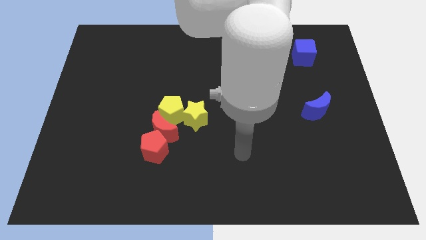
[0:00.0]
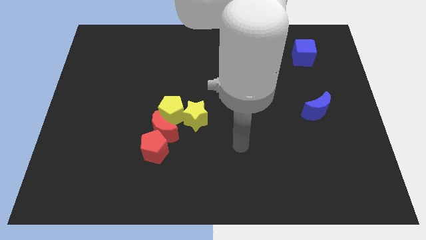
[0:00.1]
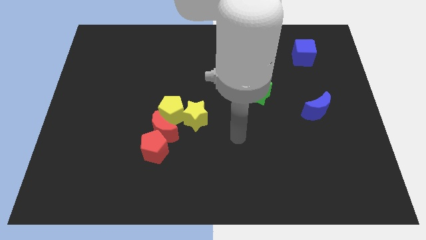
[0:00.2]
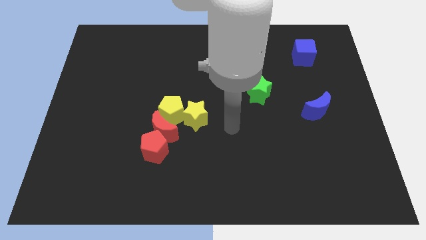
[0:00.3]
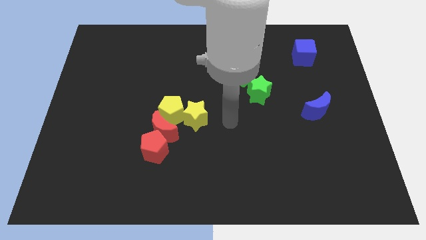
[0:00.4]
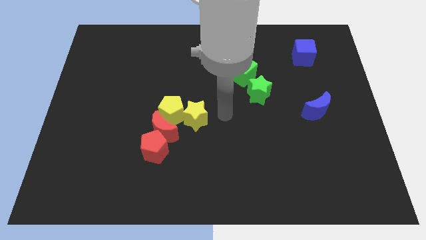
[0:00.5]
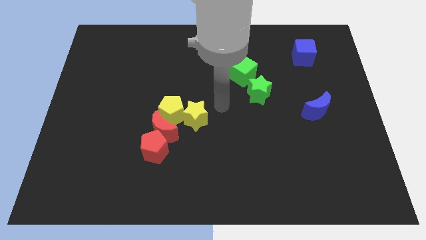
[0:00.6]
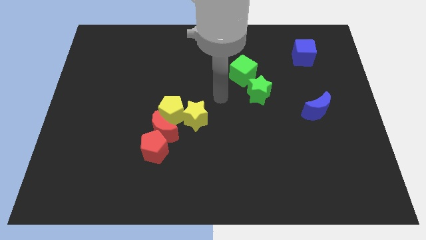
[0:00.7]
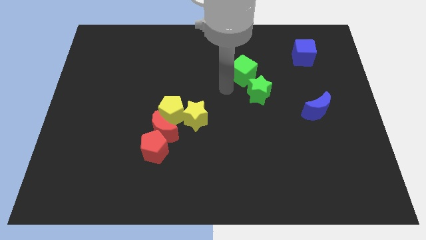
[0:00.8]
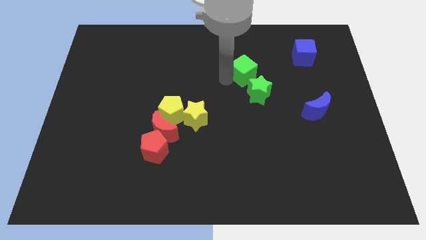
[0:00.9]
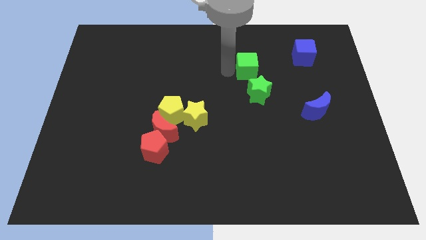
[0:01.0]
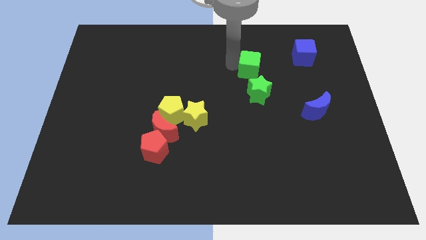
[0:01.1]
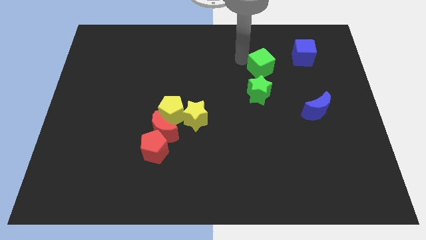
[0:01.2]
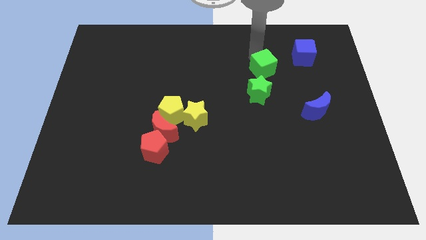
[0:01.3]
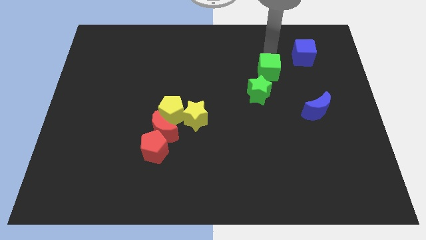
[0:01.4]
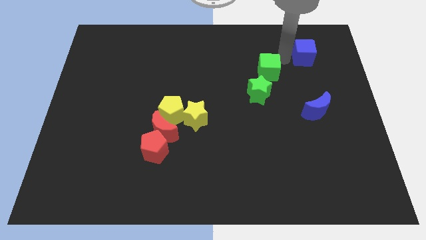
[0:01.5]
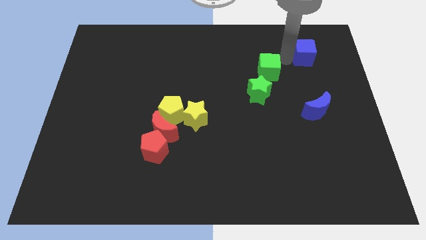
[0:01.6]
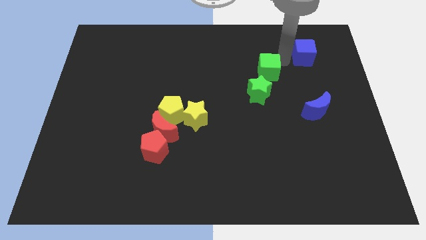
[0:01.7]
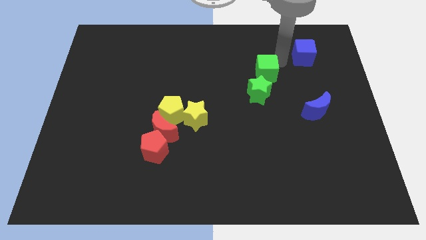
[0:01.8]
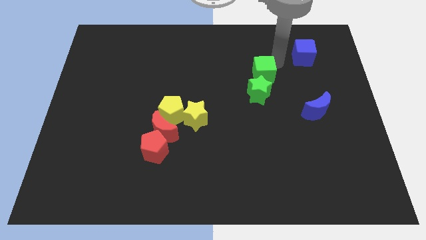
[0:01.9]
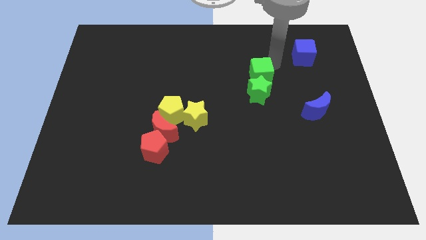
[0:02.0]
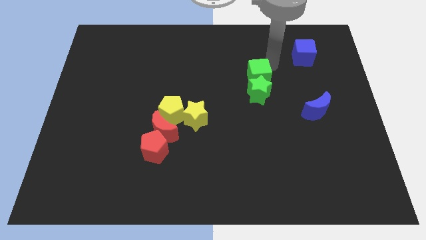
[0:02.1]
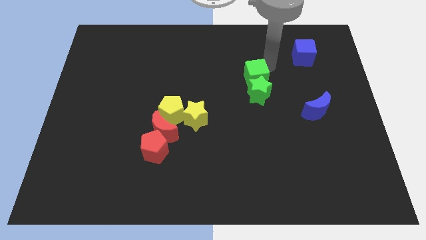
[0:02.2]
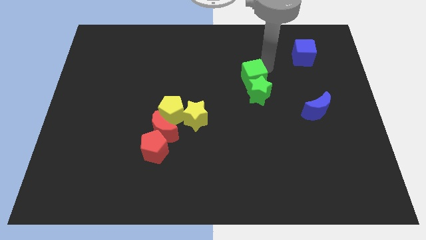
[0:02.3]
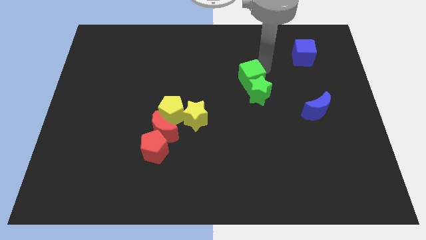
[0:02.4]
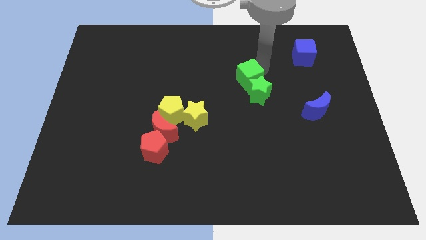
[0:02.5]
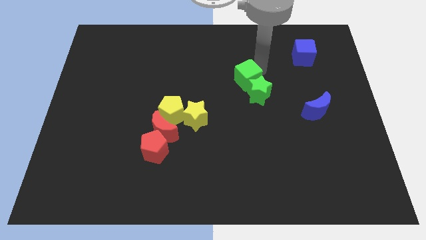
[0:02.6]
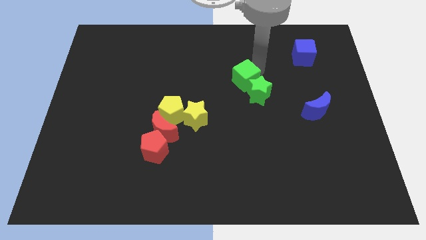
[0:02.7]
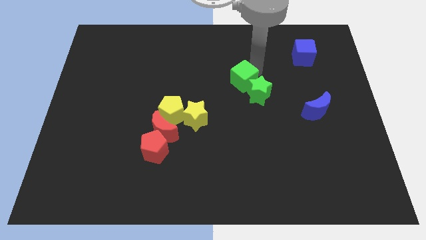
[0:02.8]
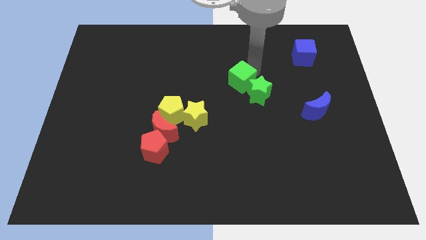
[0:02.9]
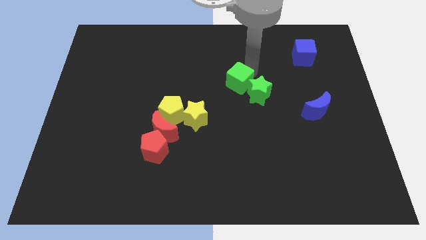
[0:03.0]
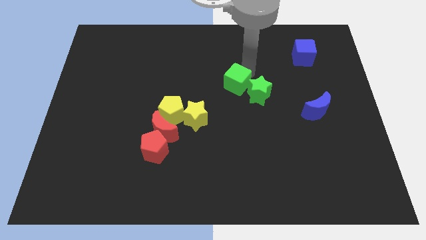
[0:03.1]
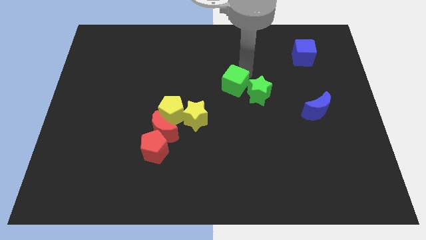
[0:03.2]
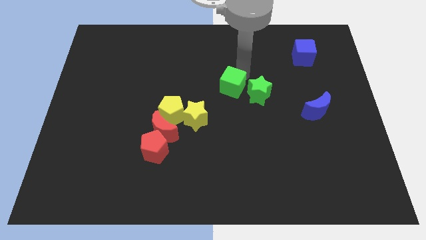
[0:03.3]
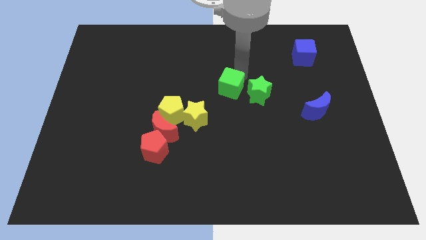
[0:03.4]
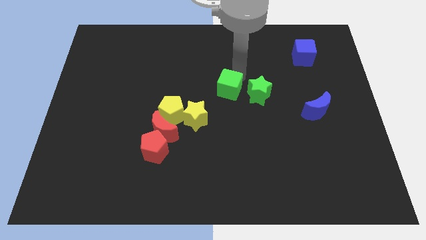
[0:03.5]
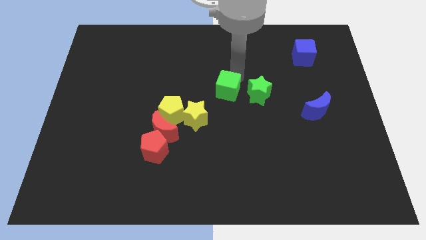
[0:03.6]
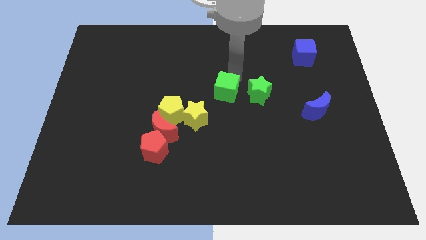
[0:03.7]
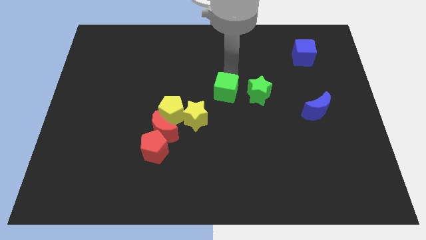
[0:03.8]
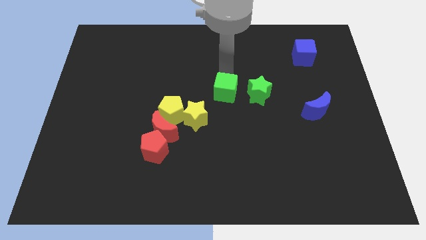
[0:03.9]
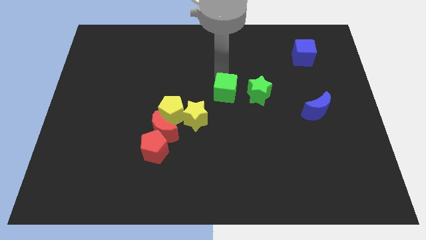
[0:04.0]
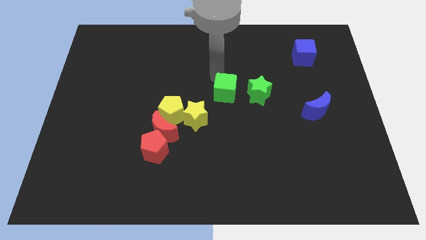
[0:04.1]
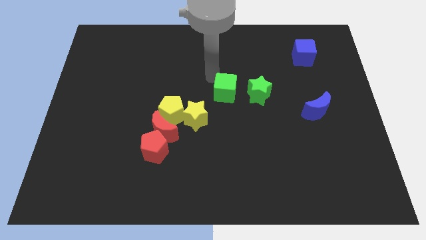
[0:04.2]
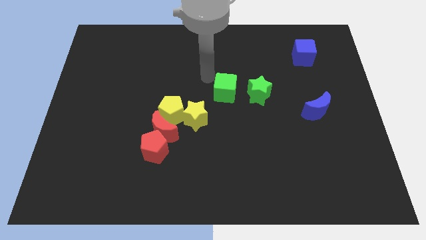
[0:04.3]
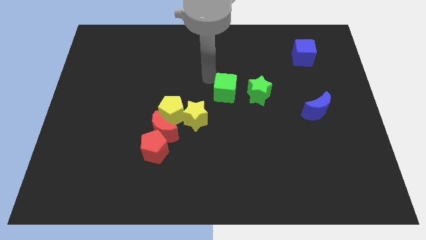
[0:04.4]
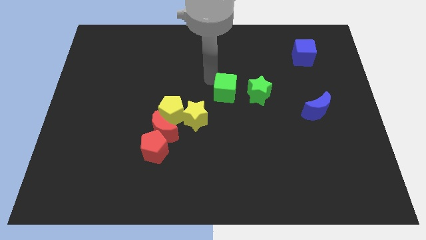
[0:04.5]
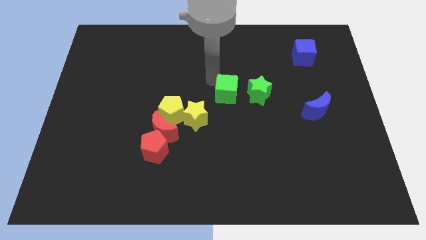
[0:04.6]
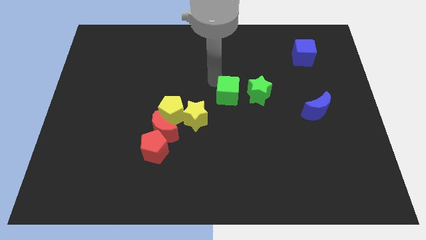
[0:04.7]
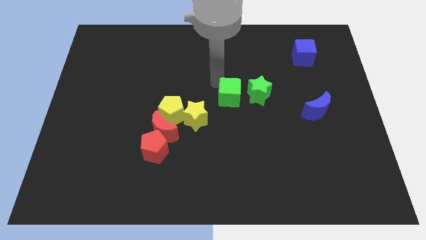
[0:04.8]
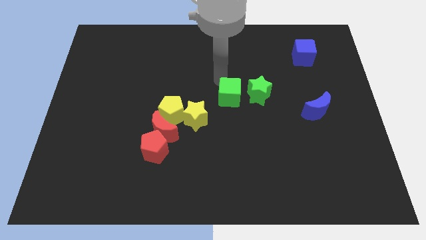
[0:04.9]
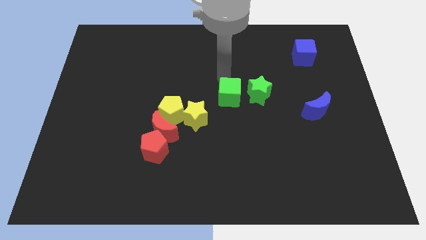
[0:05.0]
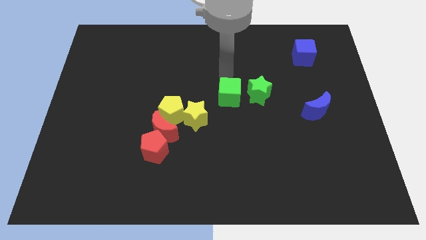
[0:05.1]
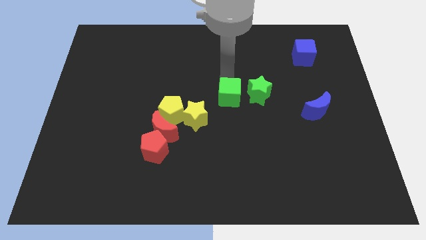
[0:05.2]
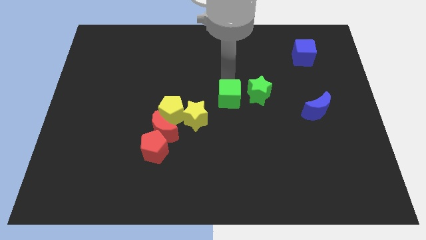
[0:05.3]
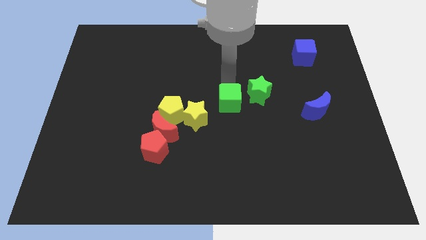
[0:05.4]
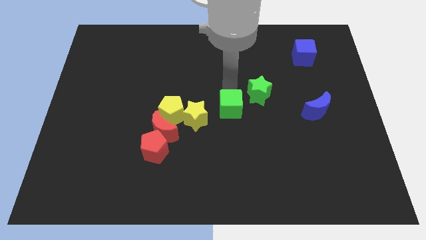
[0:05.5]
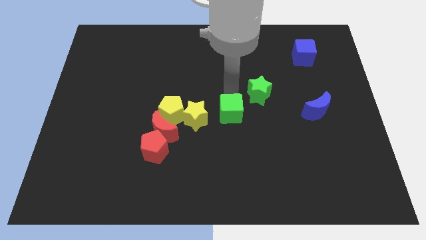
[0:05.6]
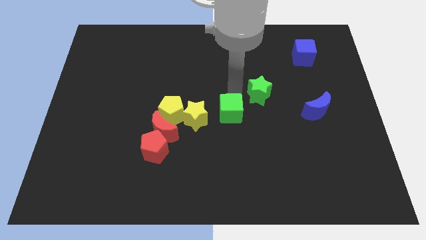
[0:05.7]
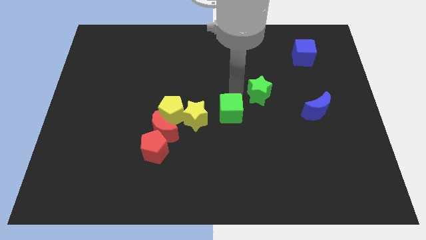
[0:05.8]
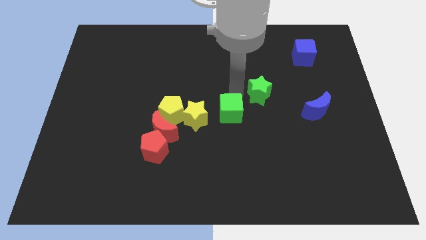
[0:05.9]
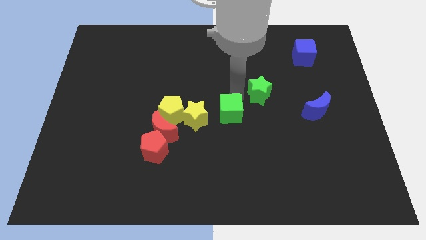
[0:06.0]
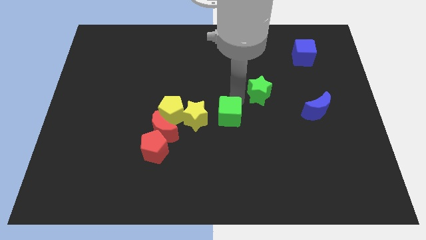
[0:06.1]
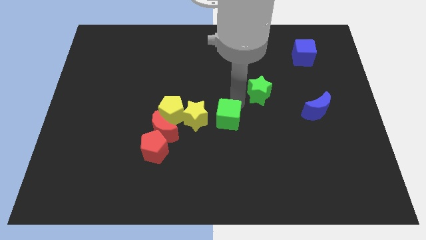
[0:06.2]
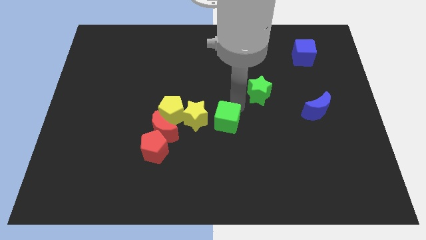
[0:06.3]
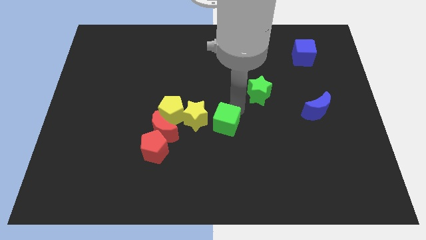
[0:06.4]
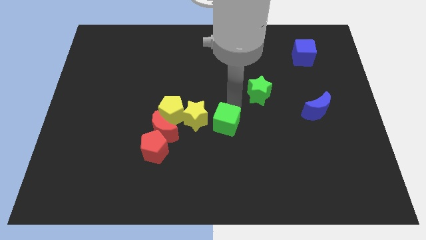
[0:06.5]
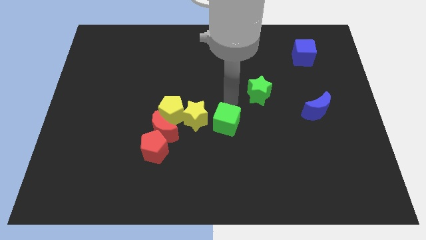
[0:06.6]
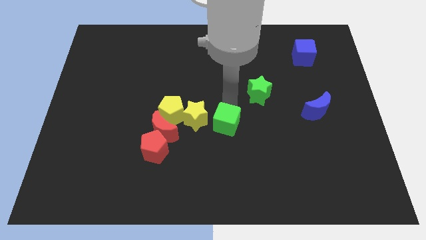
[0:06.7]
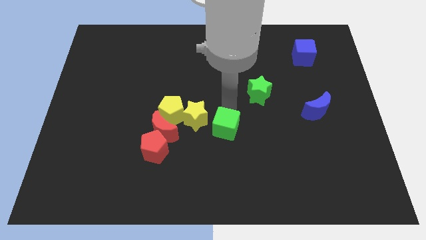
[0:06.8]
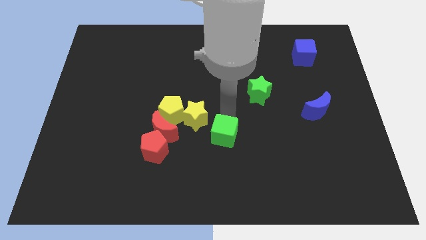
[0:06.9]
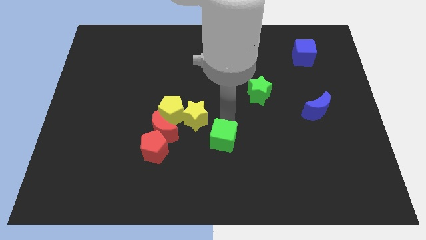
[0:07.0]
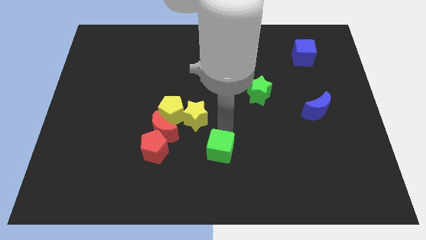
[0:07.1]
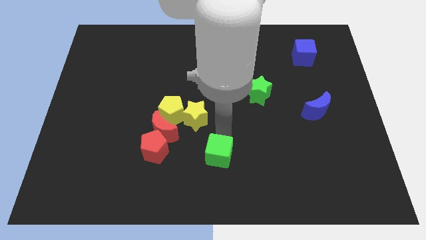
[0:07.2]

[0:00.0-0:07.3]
put the green cube to the bottom
